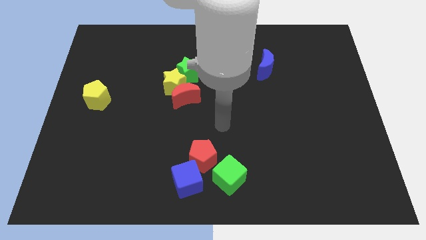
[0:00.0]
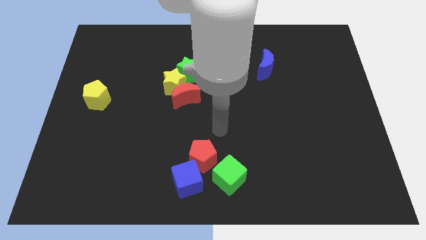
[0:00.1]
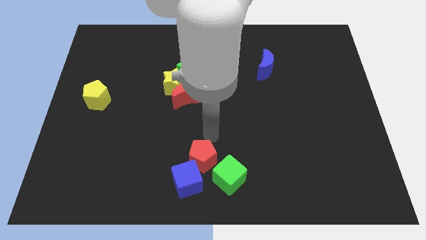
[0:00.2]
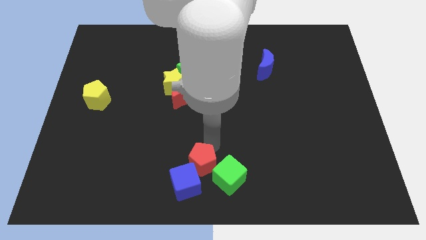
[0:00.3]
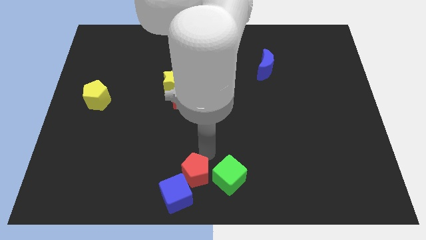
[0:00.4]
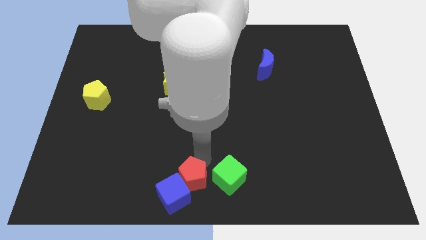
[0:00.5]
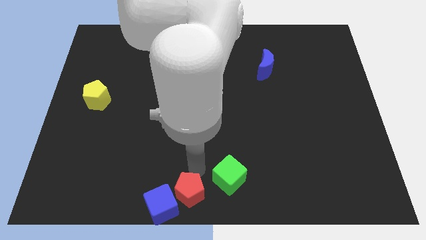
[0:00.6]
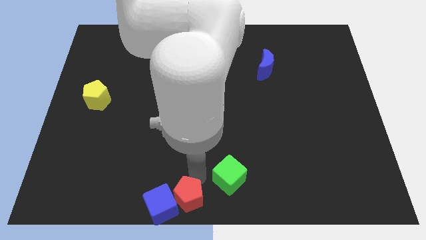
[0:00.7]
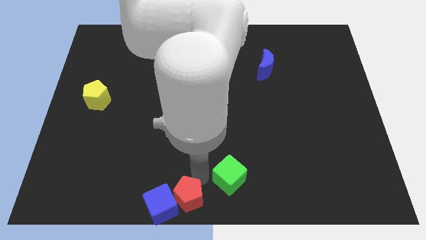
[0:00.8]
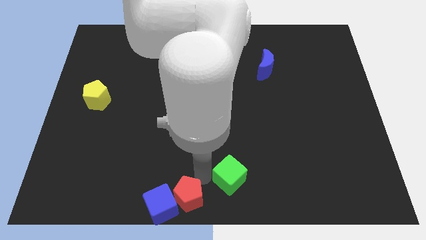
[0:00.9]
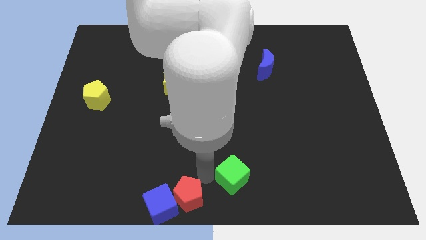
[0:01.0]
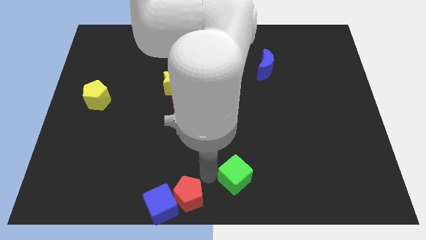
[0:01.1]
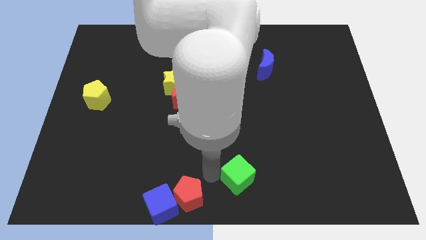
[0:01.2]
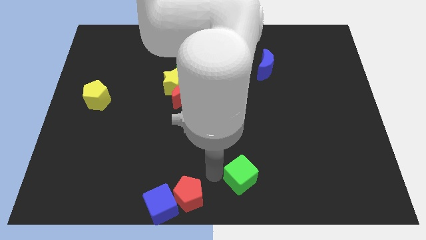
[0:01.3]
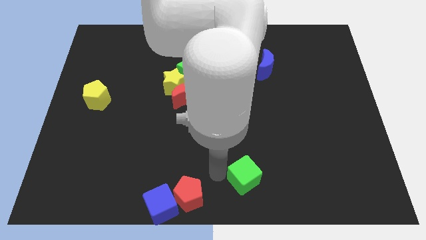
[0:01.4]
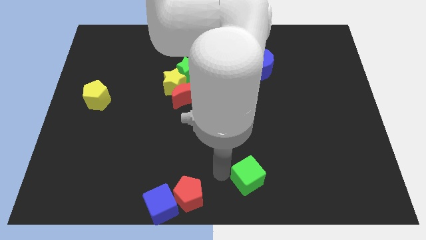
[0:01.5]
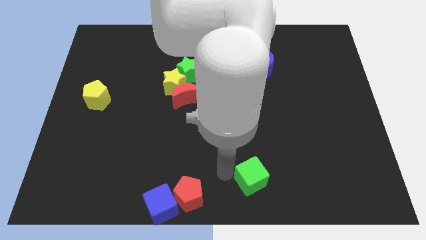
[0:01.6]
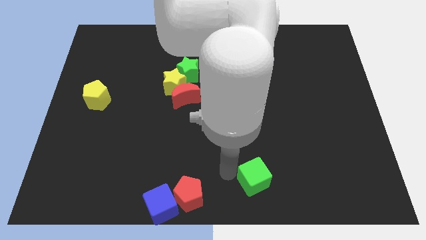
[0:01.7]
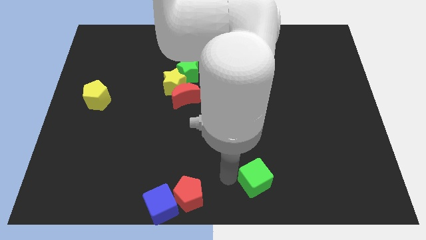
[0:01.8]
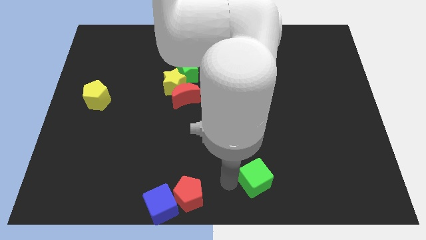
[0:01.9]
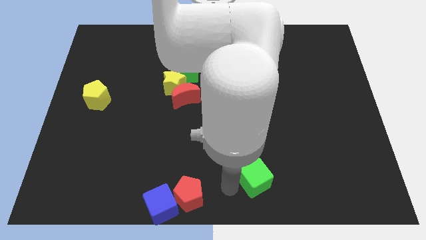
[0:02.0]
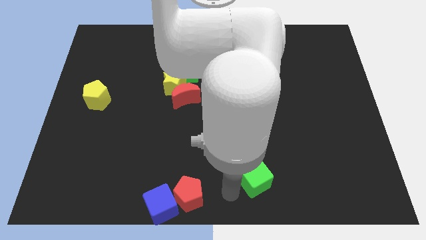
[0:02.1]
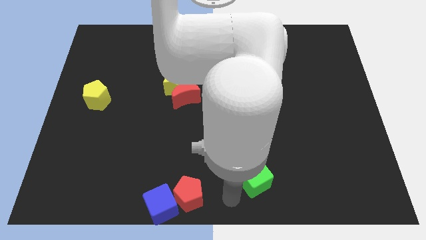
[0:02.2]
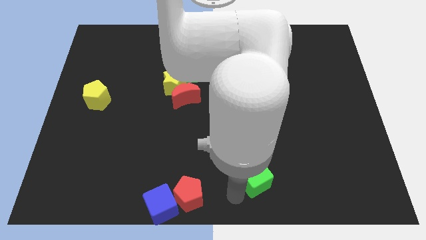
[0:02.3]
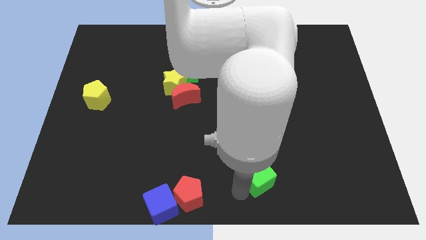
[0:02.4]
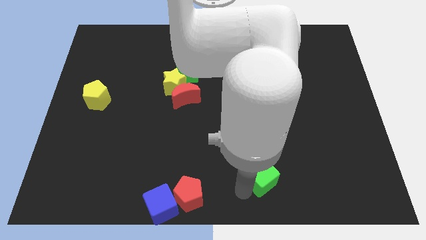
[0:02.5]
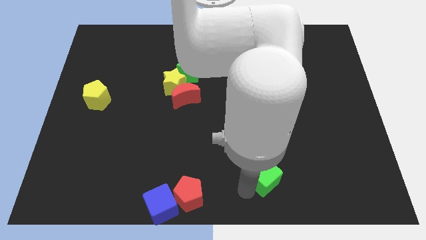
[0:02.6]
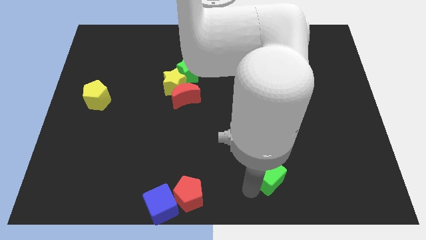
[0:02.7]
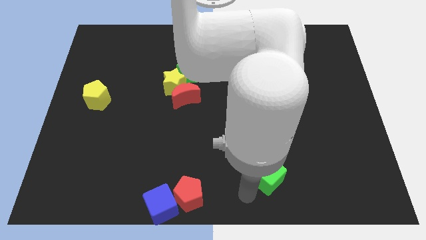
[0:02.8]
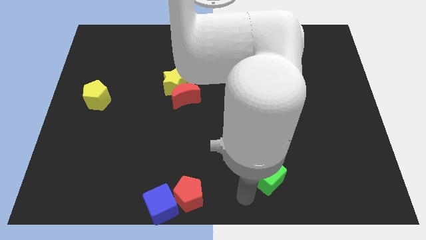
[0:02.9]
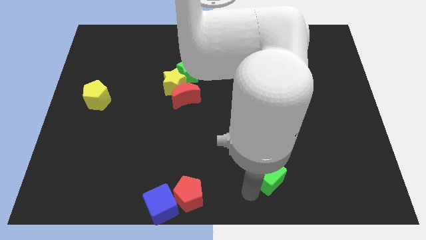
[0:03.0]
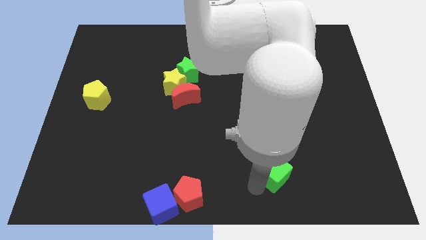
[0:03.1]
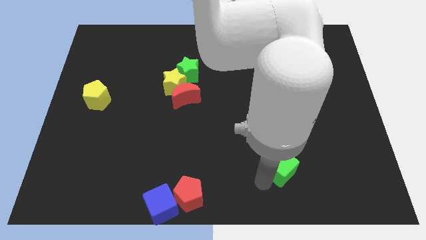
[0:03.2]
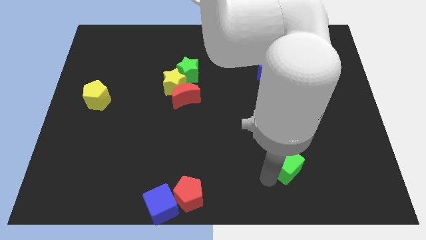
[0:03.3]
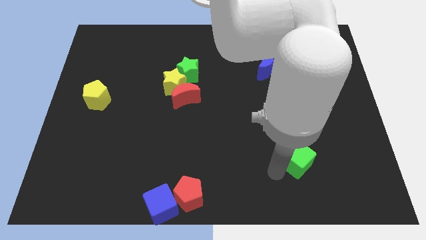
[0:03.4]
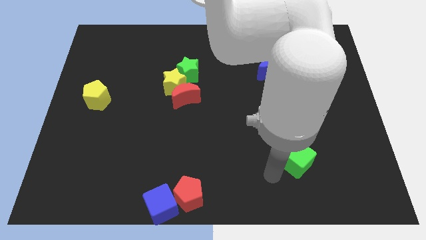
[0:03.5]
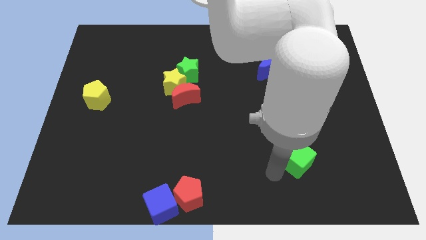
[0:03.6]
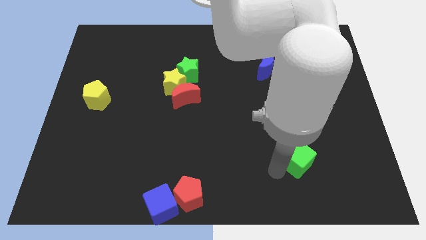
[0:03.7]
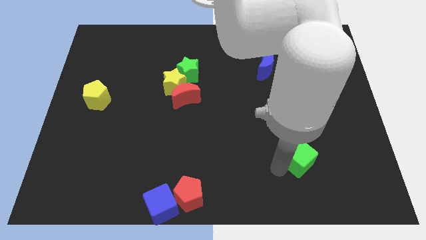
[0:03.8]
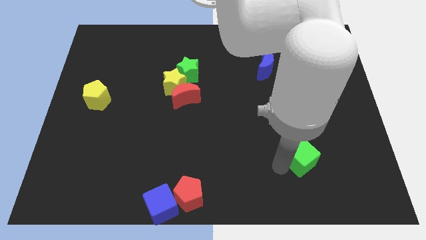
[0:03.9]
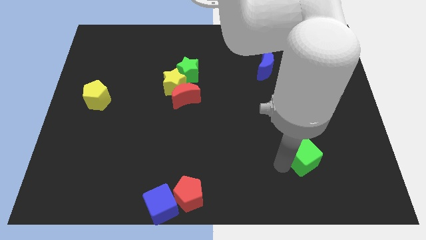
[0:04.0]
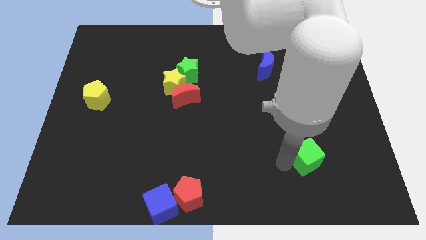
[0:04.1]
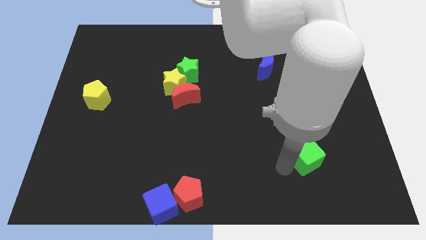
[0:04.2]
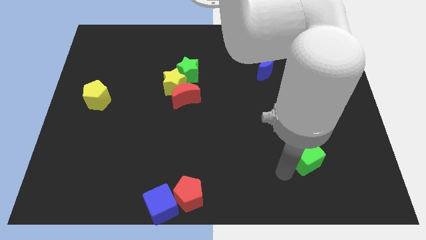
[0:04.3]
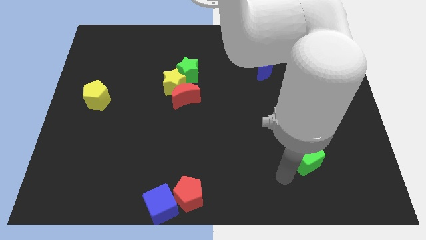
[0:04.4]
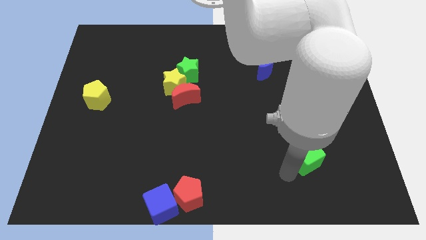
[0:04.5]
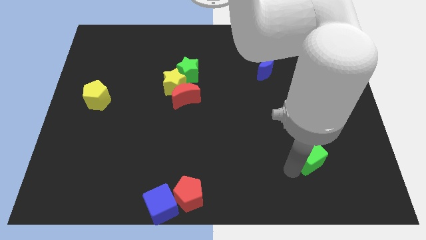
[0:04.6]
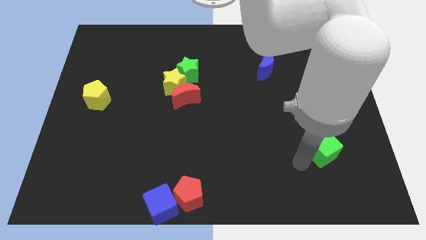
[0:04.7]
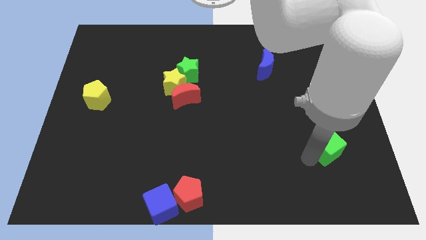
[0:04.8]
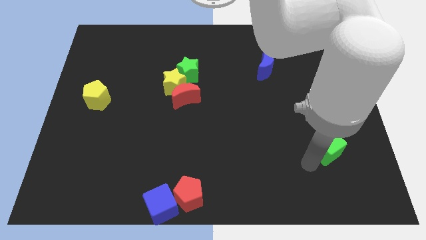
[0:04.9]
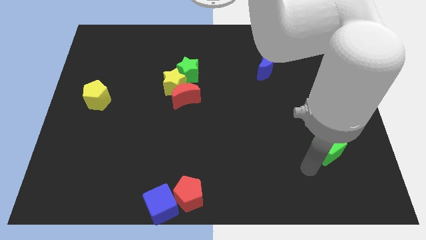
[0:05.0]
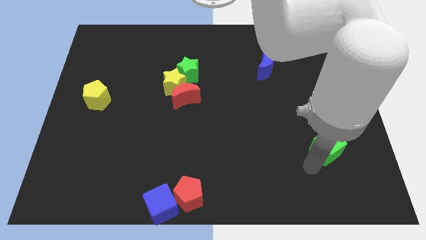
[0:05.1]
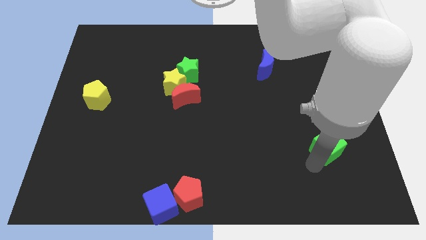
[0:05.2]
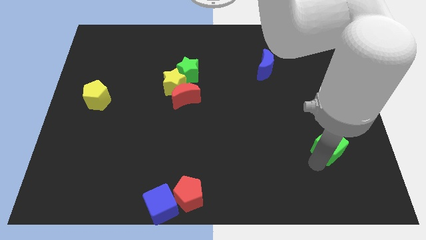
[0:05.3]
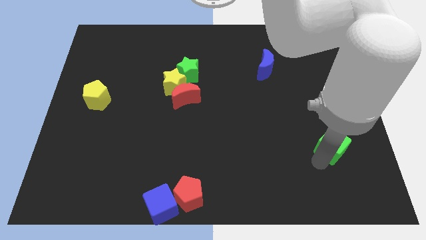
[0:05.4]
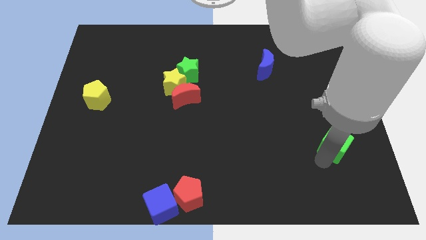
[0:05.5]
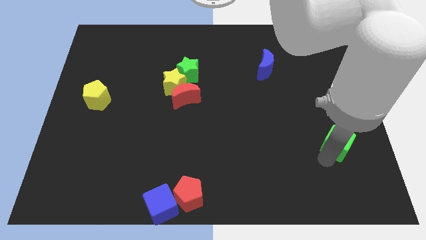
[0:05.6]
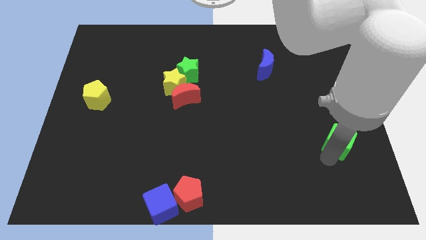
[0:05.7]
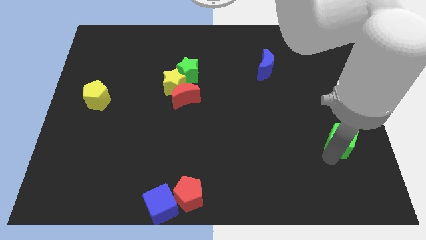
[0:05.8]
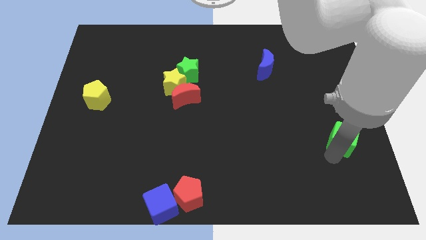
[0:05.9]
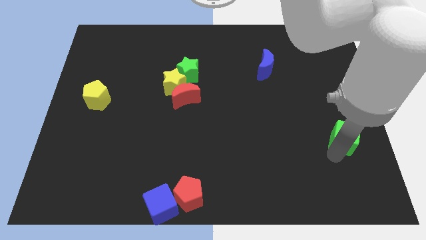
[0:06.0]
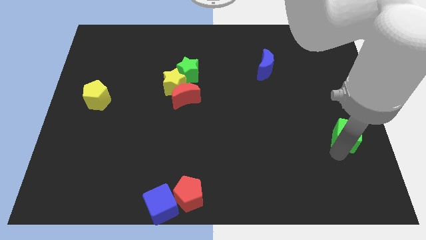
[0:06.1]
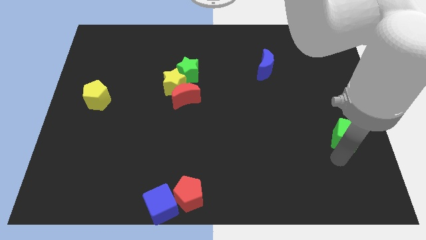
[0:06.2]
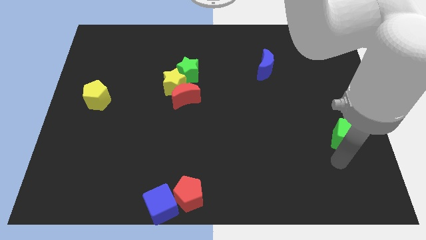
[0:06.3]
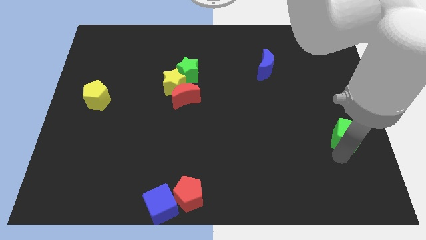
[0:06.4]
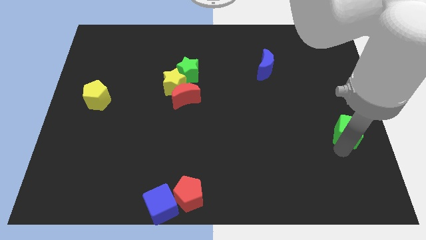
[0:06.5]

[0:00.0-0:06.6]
put the green cube to the right side of the board
